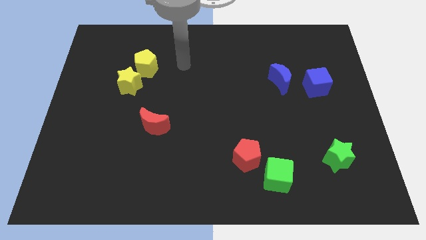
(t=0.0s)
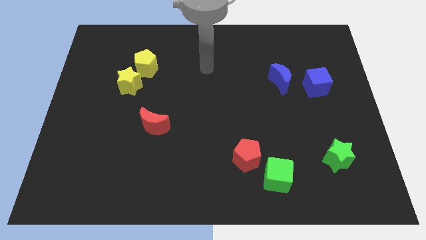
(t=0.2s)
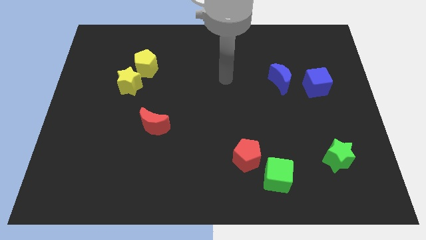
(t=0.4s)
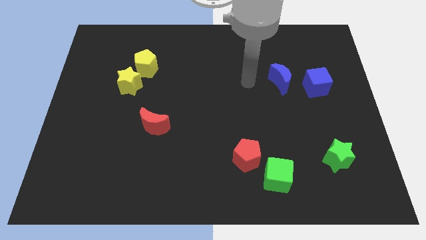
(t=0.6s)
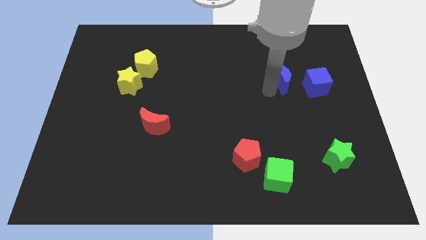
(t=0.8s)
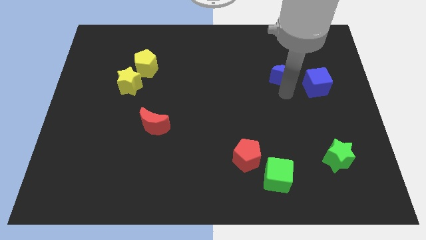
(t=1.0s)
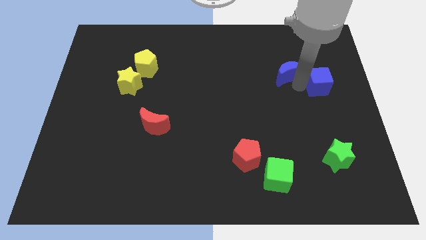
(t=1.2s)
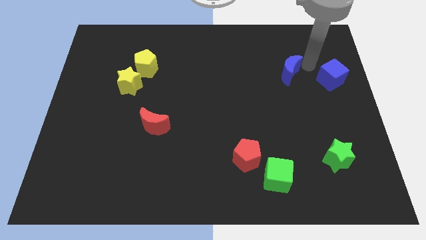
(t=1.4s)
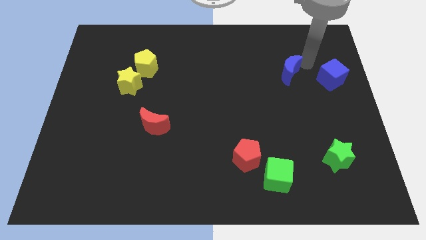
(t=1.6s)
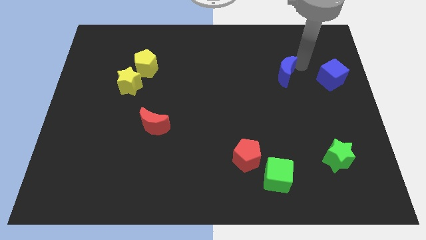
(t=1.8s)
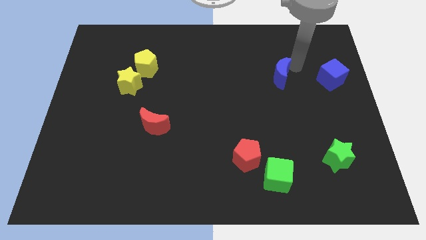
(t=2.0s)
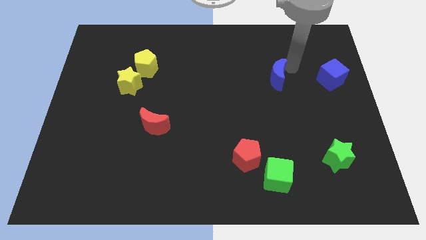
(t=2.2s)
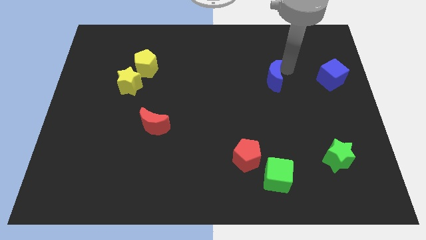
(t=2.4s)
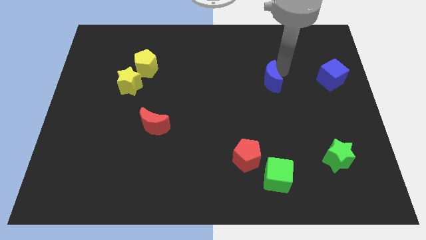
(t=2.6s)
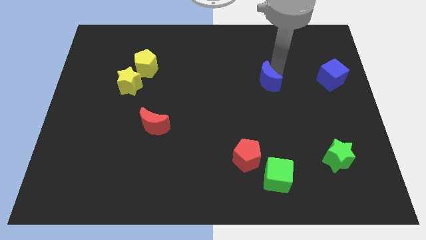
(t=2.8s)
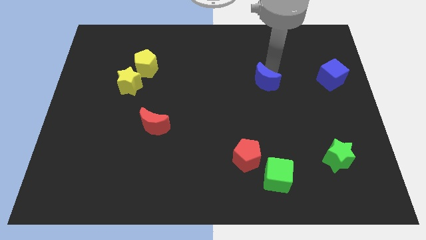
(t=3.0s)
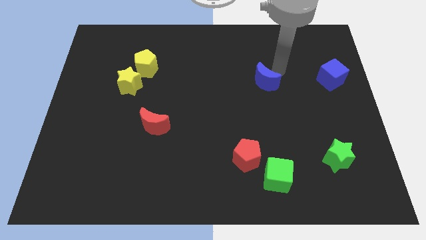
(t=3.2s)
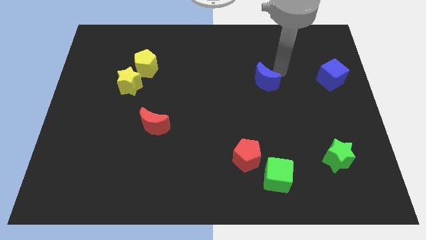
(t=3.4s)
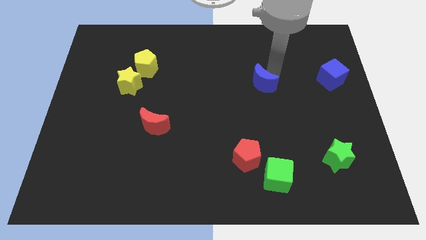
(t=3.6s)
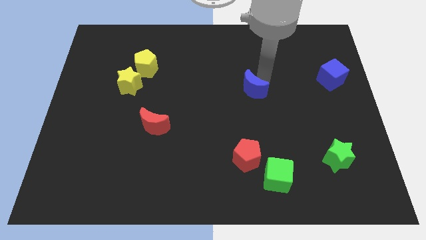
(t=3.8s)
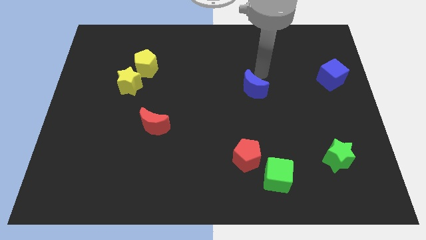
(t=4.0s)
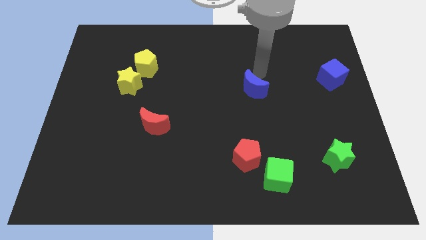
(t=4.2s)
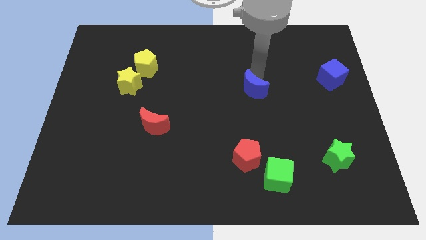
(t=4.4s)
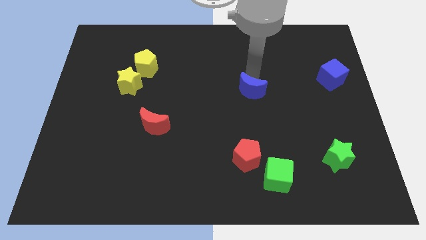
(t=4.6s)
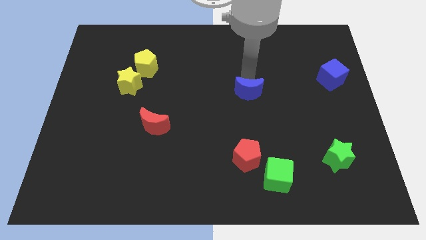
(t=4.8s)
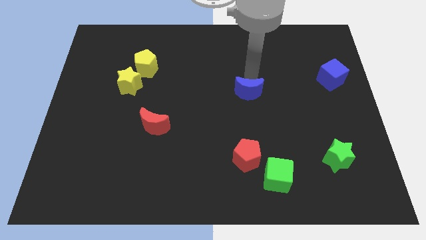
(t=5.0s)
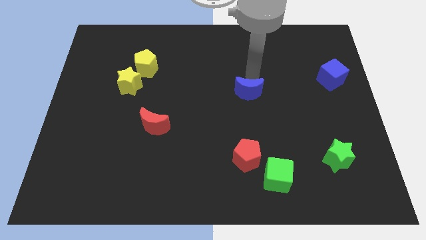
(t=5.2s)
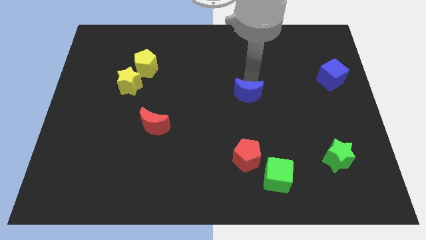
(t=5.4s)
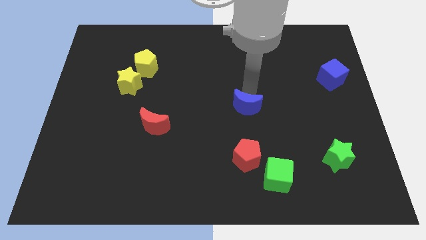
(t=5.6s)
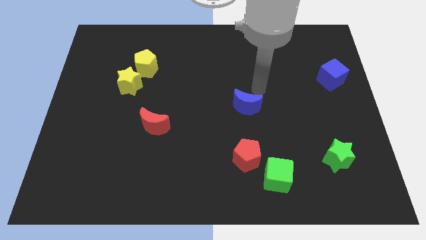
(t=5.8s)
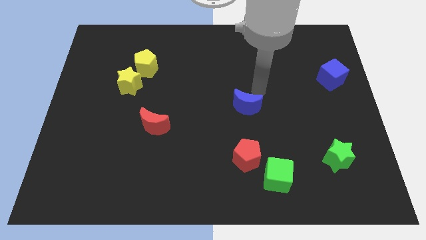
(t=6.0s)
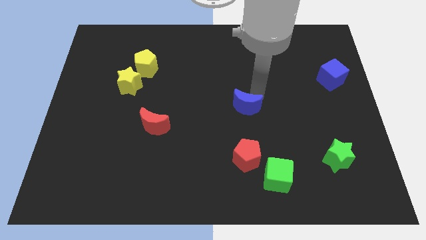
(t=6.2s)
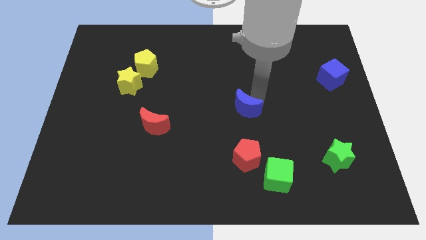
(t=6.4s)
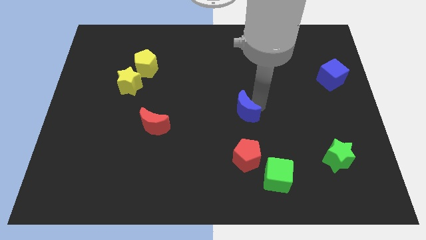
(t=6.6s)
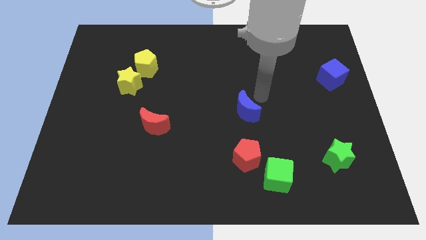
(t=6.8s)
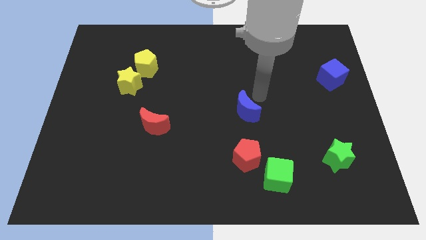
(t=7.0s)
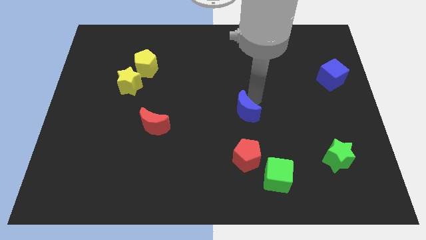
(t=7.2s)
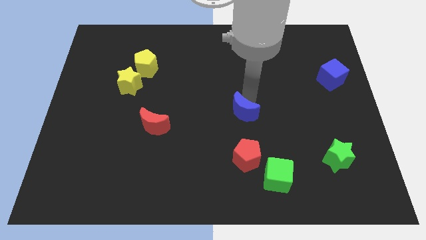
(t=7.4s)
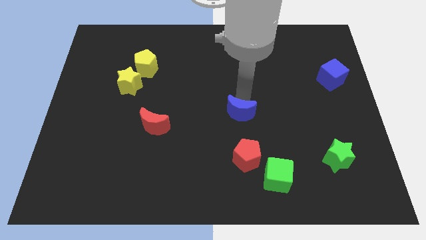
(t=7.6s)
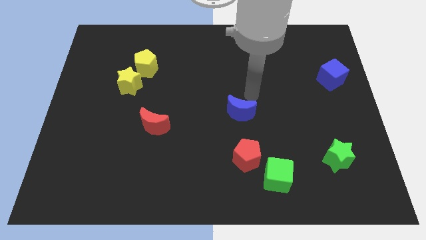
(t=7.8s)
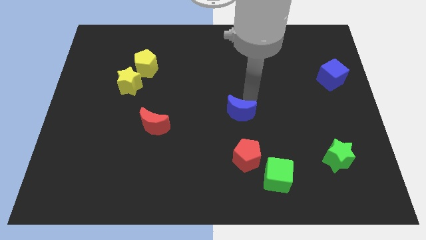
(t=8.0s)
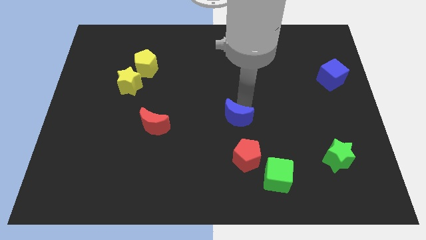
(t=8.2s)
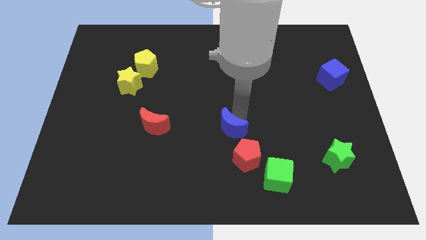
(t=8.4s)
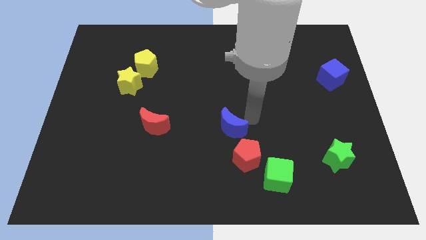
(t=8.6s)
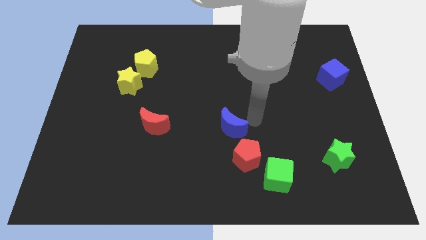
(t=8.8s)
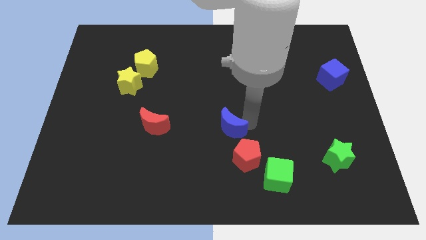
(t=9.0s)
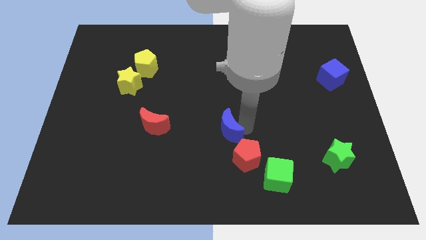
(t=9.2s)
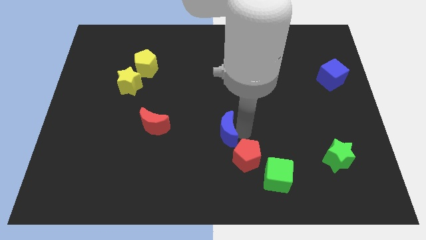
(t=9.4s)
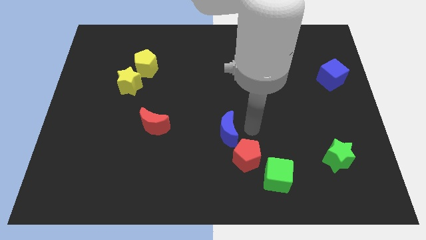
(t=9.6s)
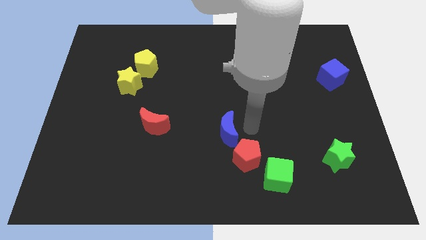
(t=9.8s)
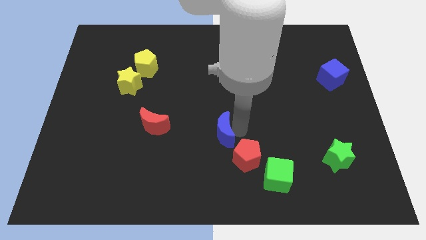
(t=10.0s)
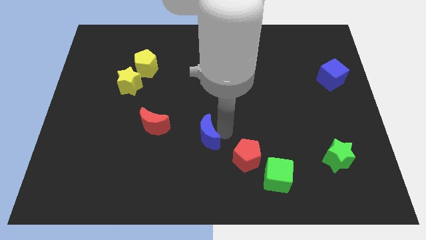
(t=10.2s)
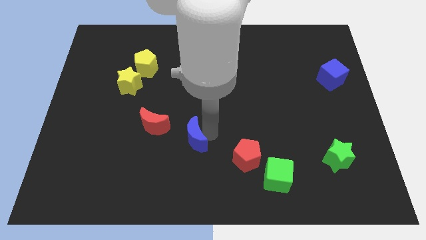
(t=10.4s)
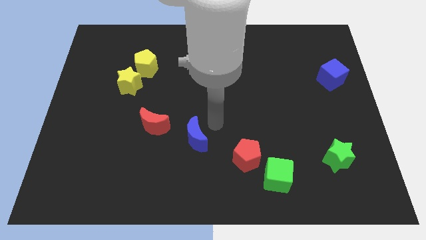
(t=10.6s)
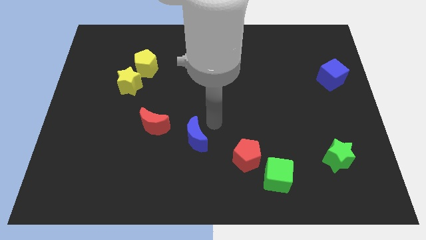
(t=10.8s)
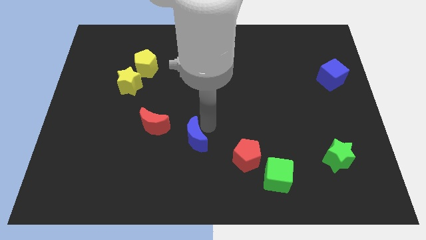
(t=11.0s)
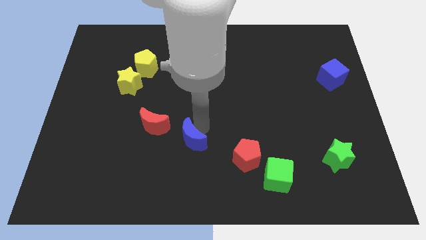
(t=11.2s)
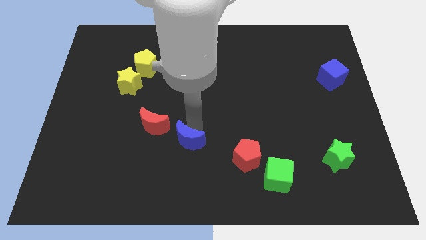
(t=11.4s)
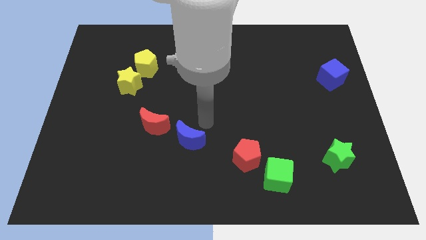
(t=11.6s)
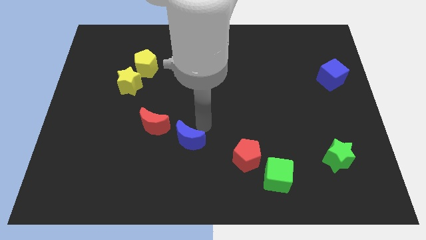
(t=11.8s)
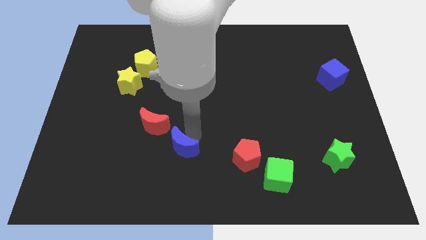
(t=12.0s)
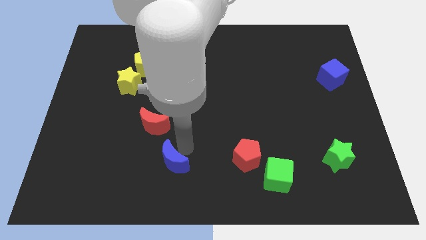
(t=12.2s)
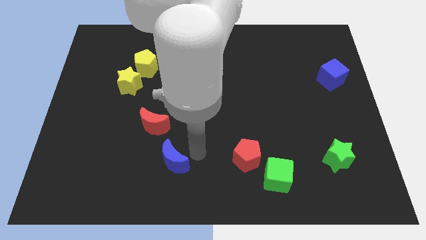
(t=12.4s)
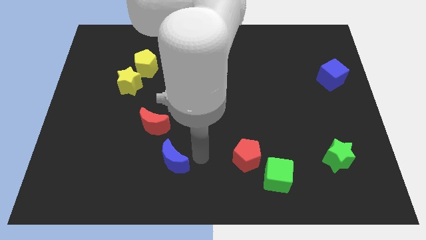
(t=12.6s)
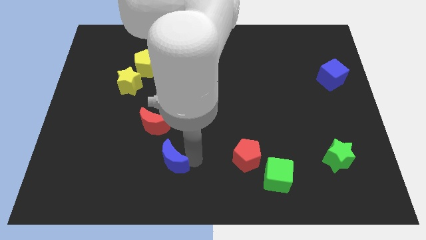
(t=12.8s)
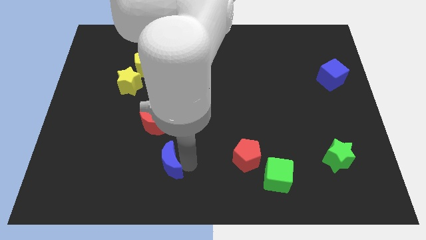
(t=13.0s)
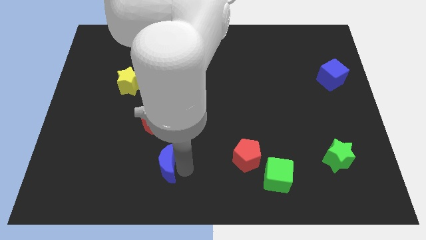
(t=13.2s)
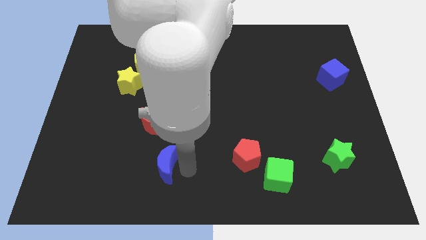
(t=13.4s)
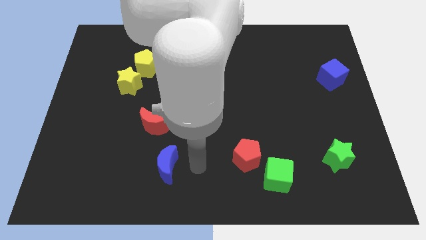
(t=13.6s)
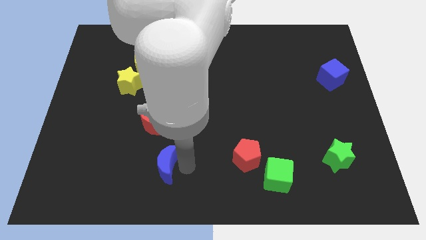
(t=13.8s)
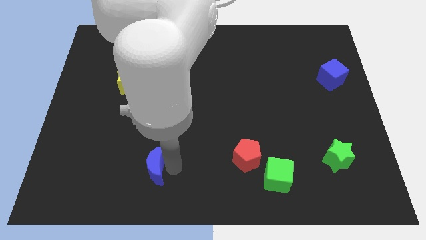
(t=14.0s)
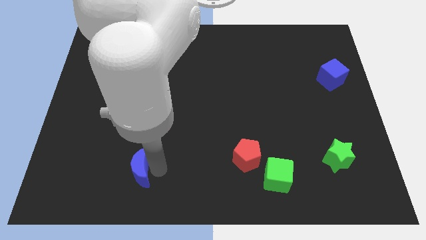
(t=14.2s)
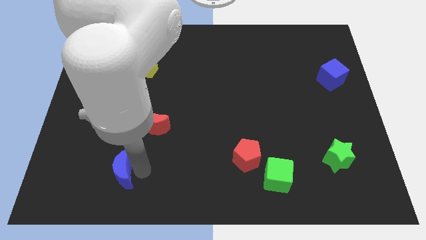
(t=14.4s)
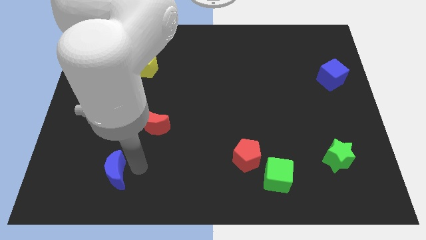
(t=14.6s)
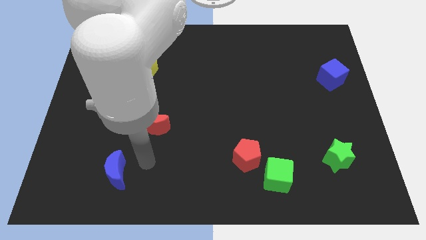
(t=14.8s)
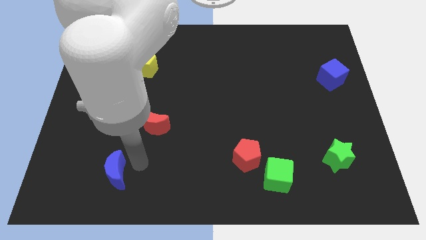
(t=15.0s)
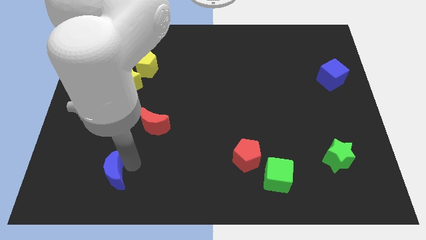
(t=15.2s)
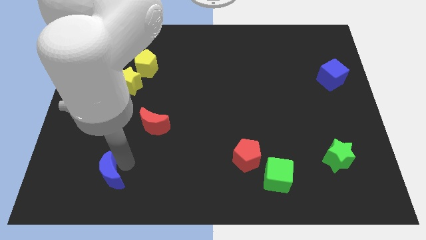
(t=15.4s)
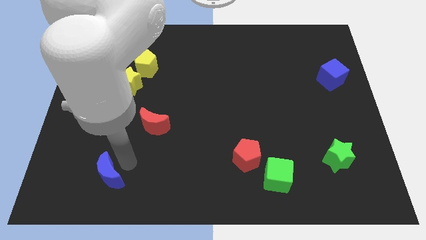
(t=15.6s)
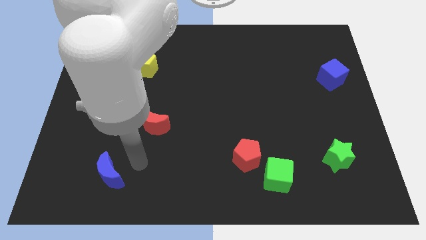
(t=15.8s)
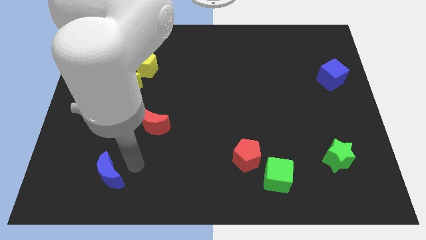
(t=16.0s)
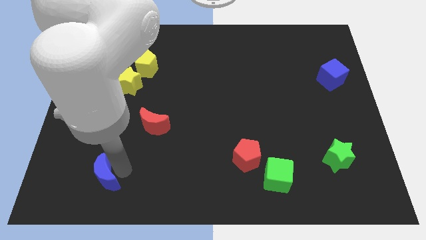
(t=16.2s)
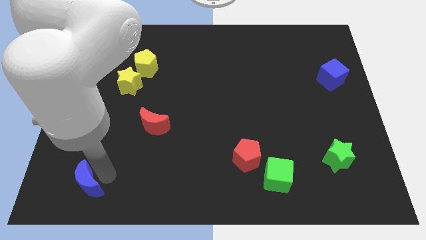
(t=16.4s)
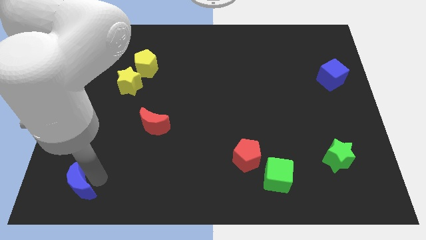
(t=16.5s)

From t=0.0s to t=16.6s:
slide the blue moon to the bottom left
